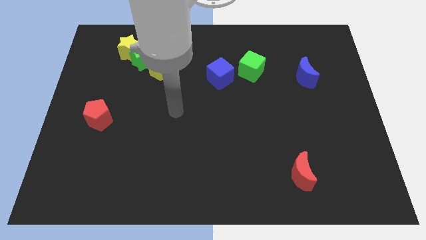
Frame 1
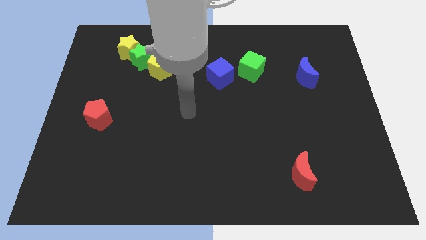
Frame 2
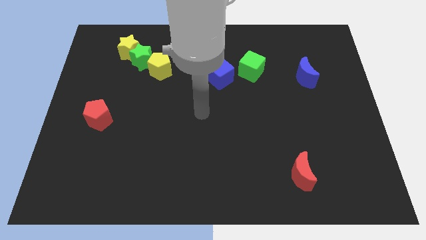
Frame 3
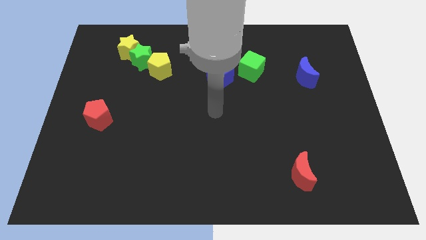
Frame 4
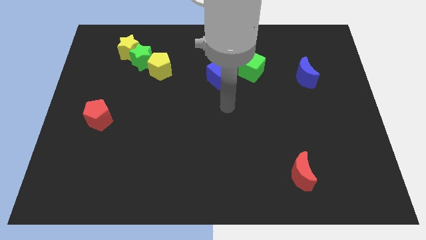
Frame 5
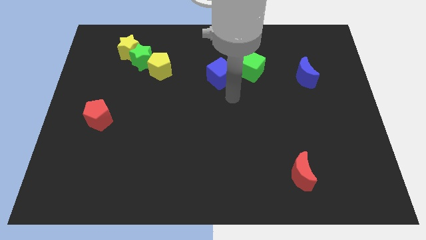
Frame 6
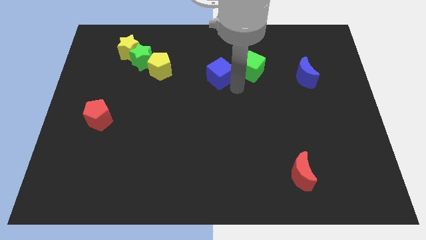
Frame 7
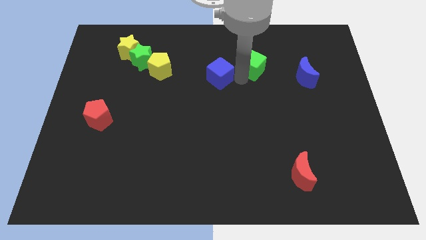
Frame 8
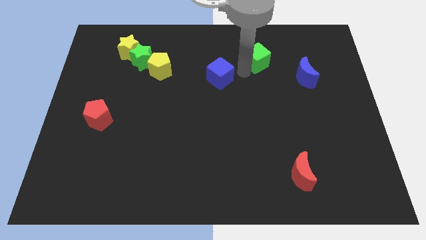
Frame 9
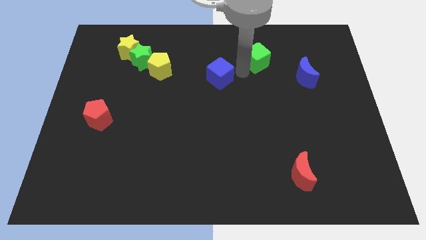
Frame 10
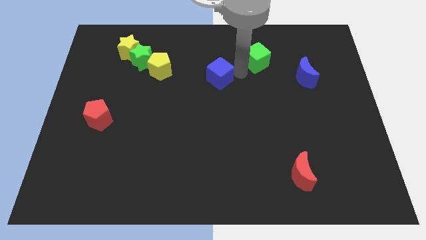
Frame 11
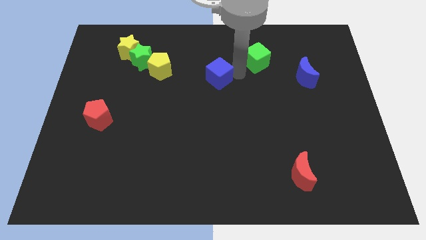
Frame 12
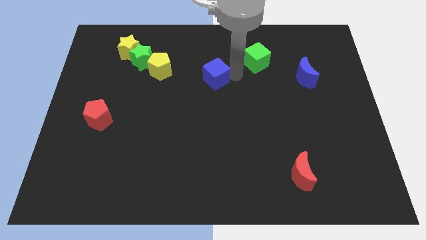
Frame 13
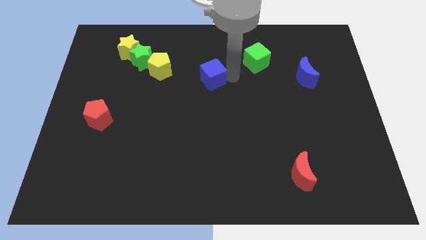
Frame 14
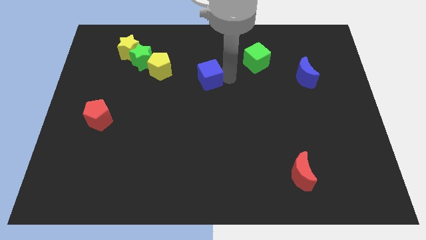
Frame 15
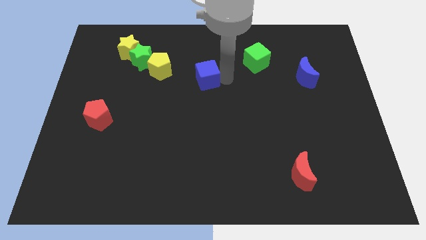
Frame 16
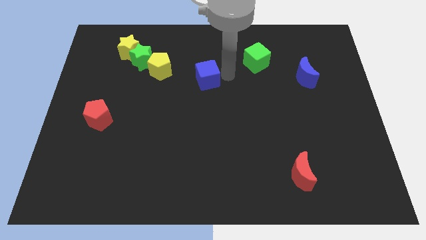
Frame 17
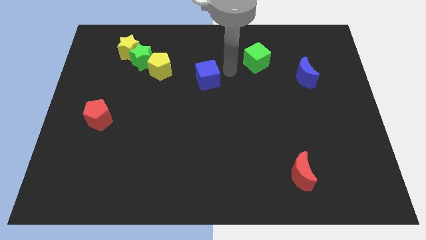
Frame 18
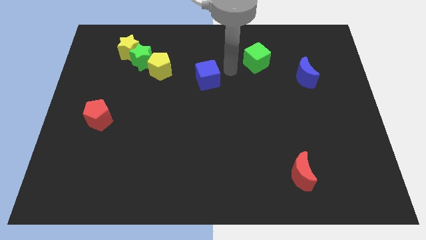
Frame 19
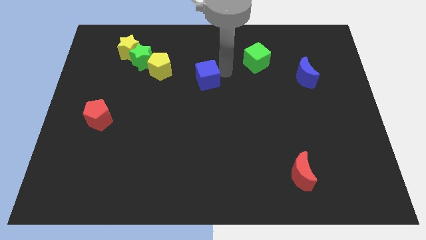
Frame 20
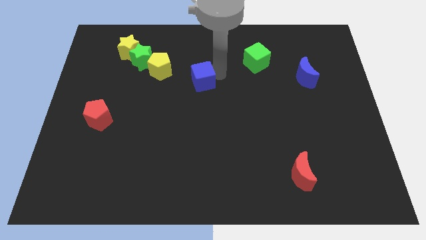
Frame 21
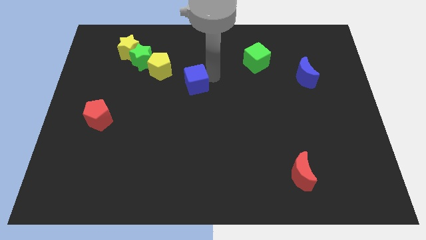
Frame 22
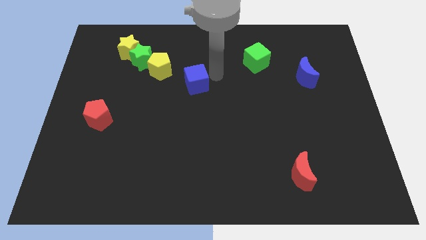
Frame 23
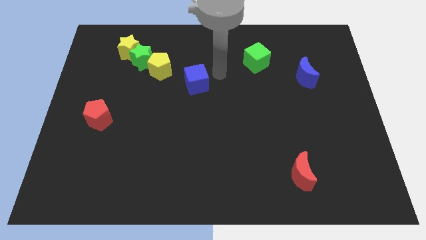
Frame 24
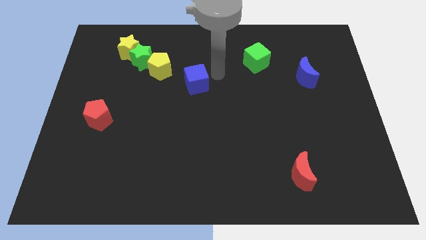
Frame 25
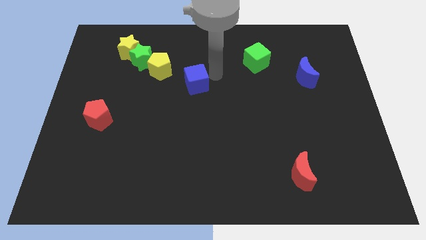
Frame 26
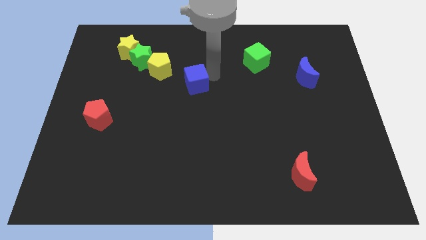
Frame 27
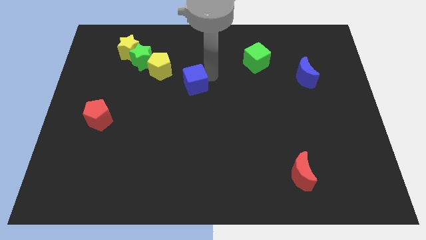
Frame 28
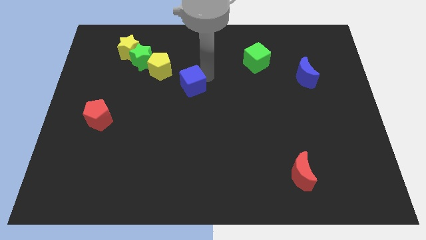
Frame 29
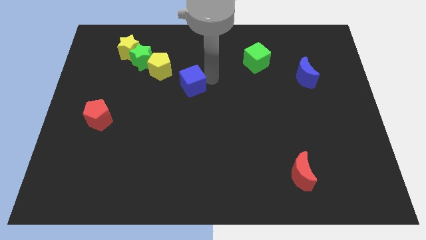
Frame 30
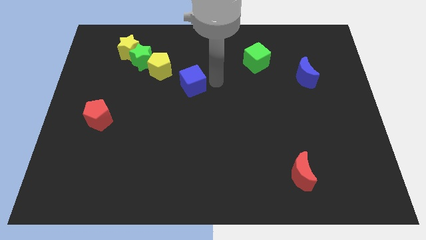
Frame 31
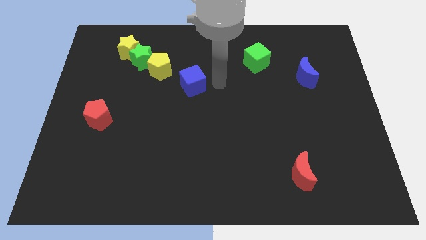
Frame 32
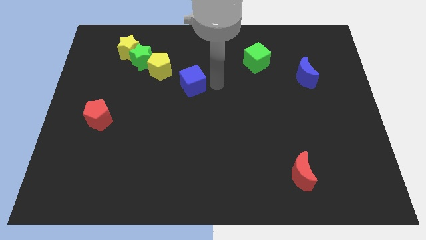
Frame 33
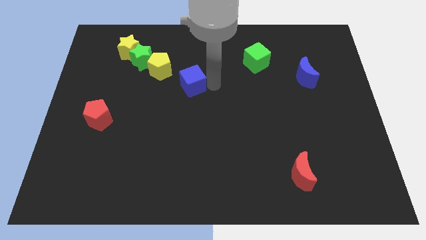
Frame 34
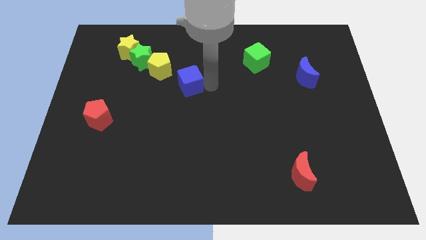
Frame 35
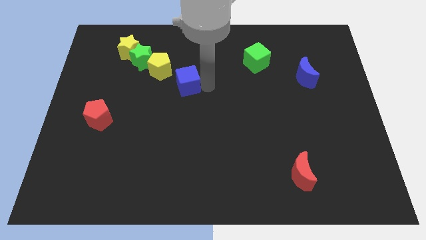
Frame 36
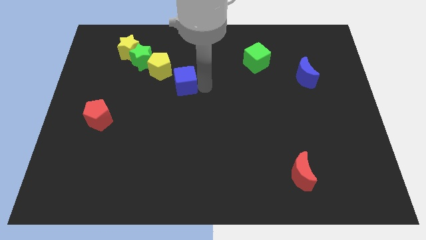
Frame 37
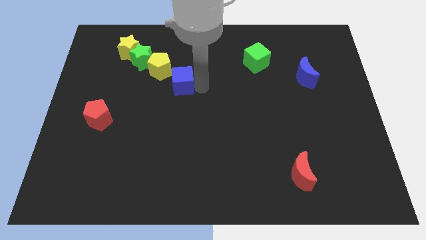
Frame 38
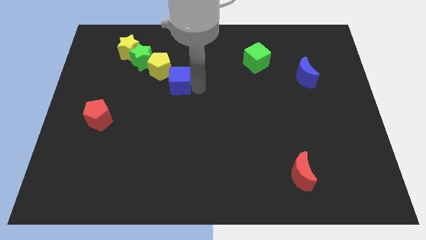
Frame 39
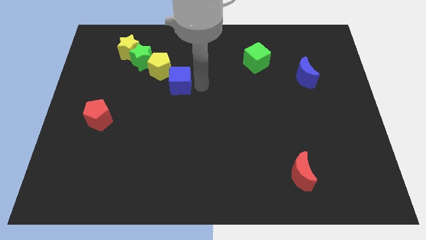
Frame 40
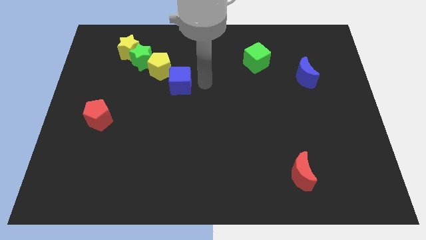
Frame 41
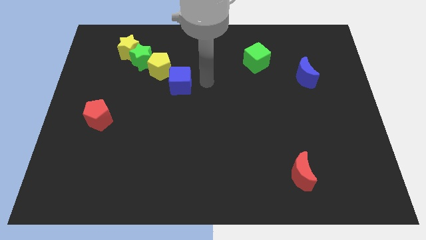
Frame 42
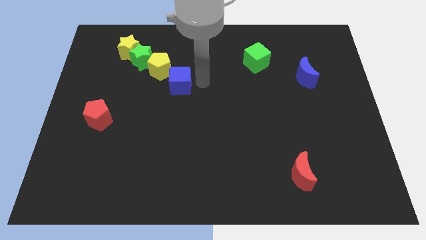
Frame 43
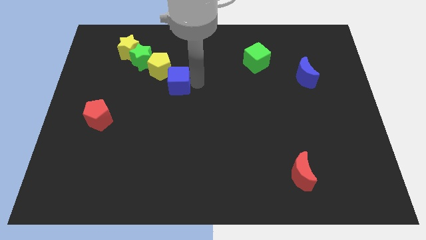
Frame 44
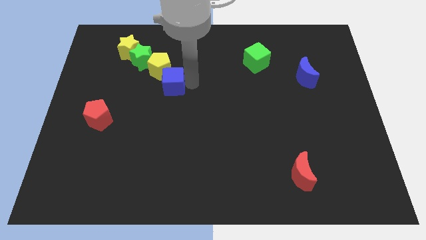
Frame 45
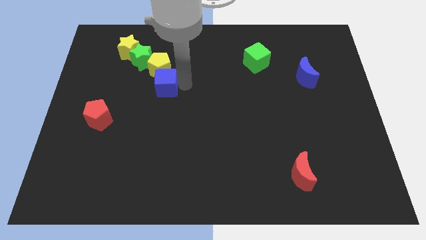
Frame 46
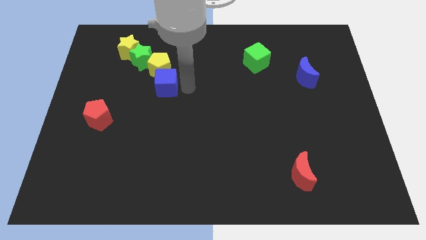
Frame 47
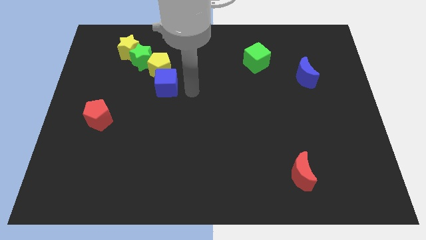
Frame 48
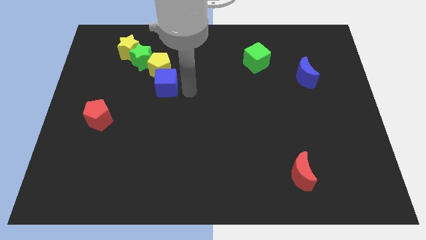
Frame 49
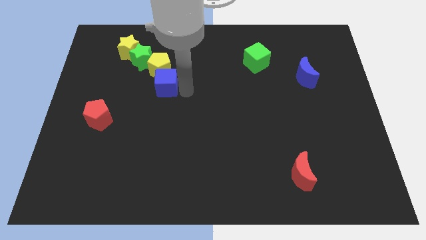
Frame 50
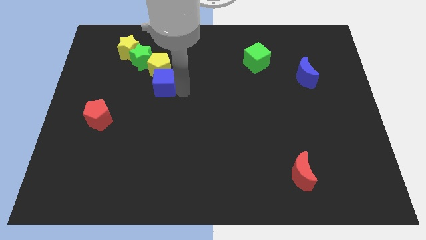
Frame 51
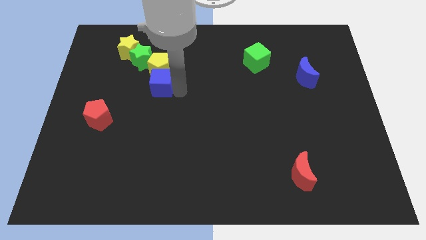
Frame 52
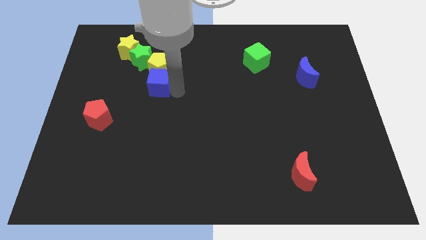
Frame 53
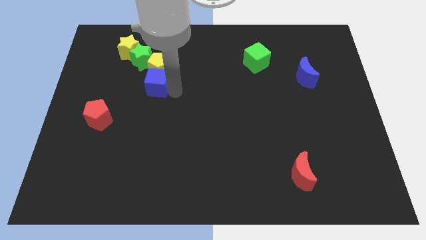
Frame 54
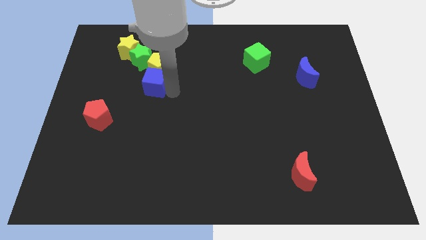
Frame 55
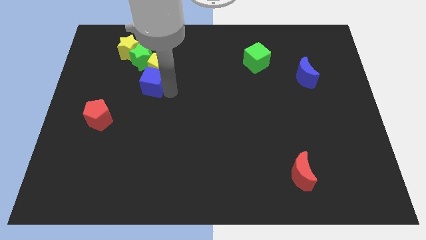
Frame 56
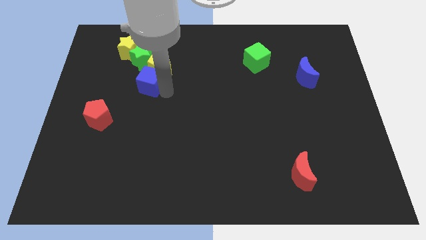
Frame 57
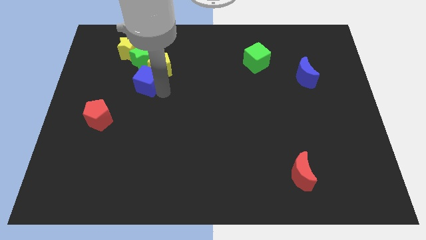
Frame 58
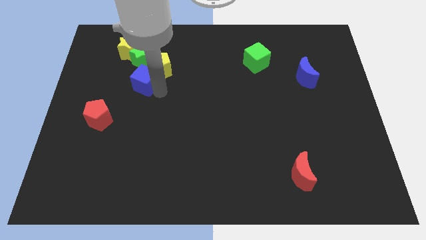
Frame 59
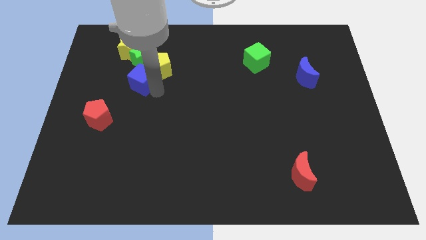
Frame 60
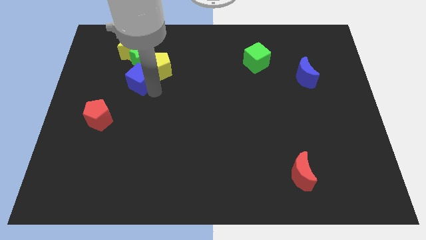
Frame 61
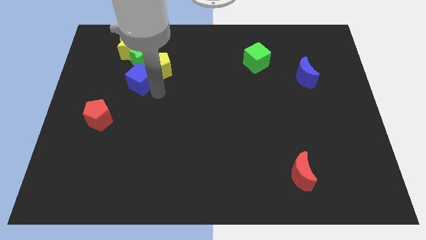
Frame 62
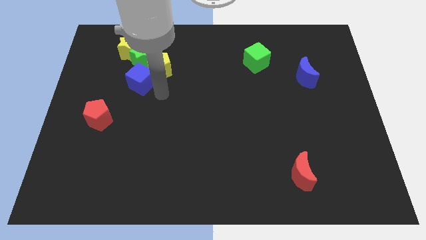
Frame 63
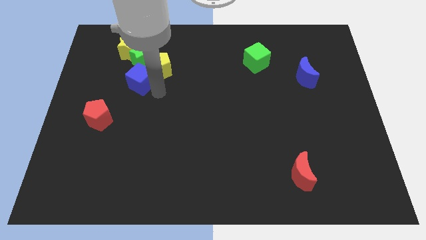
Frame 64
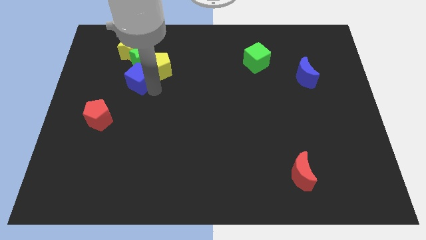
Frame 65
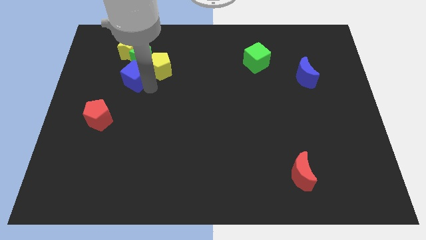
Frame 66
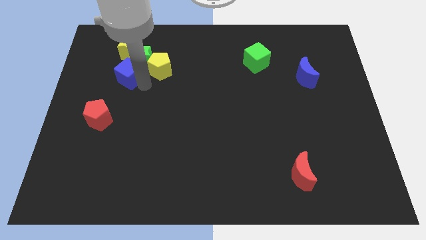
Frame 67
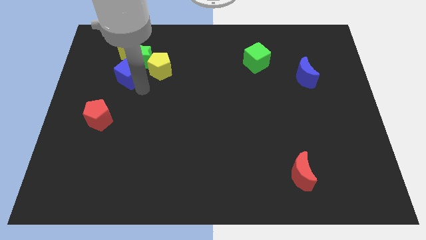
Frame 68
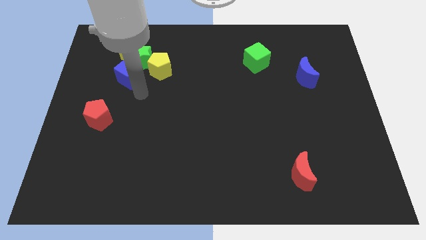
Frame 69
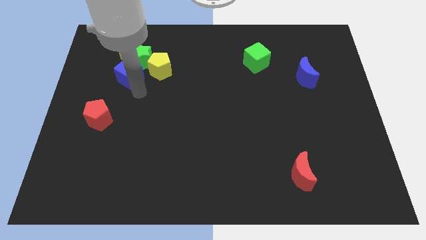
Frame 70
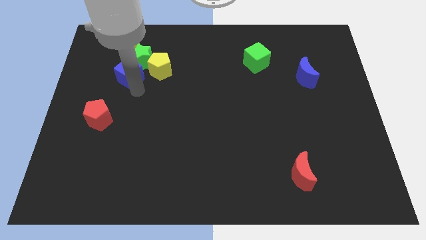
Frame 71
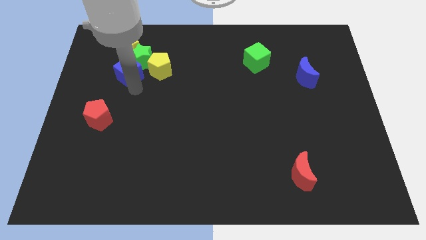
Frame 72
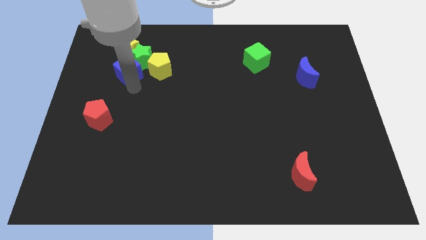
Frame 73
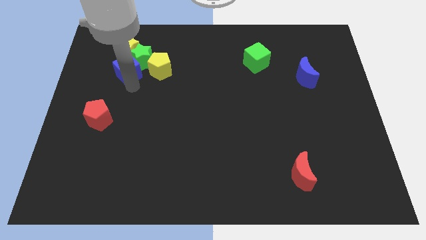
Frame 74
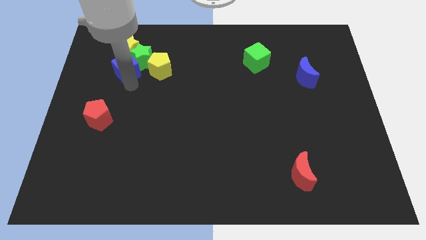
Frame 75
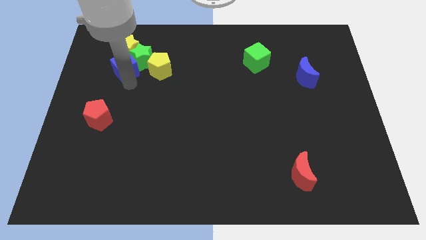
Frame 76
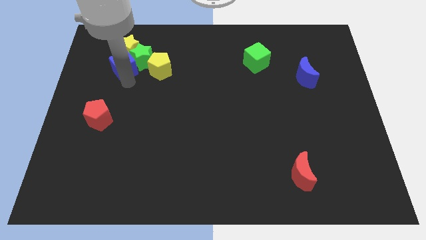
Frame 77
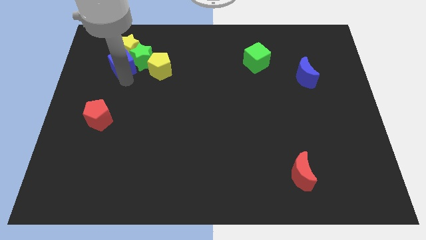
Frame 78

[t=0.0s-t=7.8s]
slide the blue cube to the yellow star
